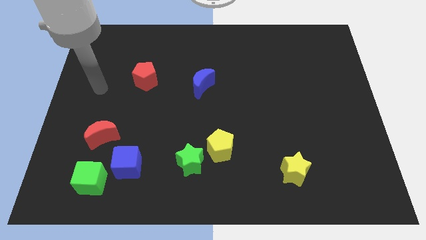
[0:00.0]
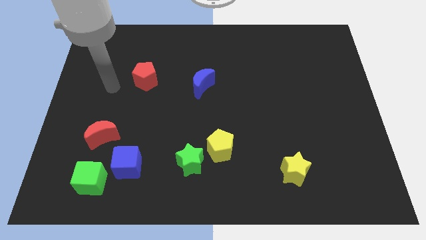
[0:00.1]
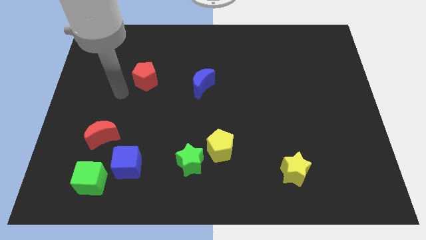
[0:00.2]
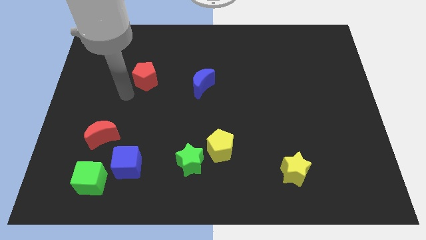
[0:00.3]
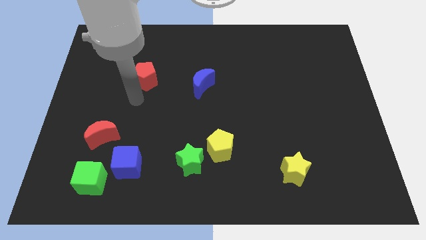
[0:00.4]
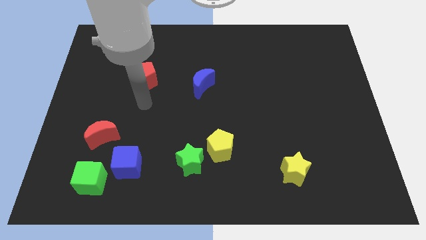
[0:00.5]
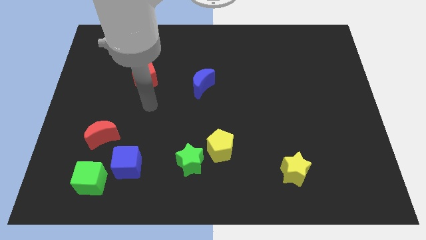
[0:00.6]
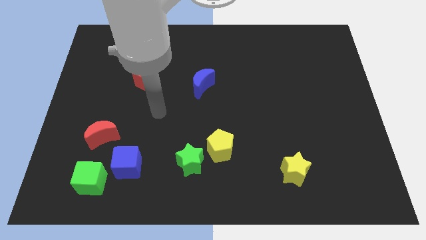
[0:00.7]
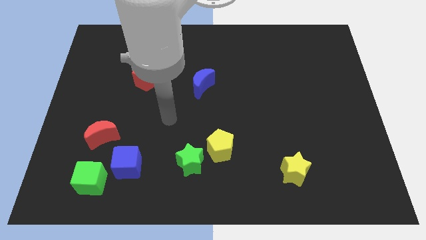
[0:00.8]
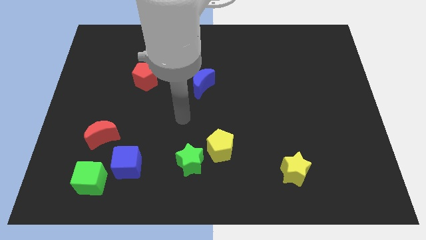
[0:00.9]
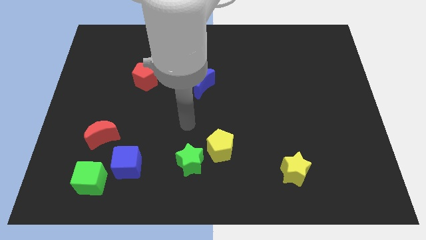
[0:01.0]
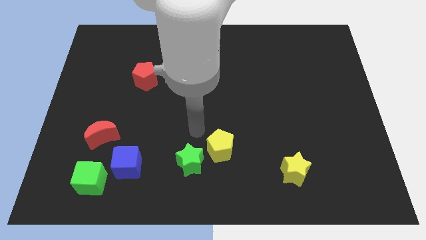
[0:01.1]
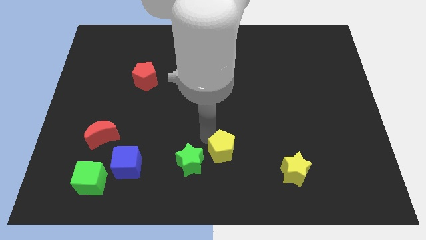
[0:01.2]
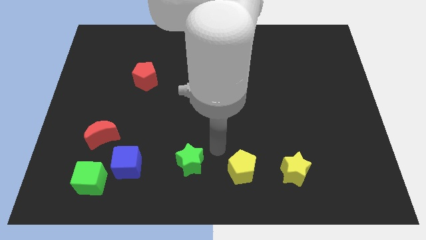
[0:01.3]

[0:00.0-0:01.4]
separate the green star from the yellow pentagon

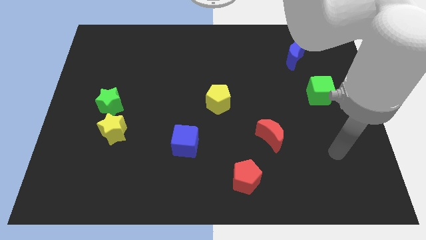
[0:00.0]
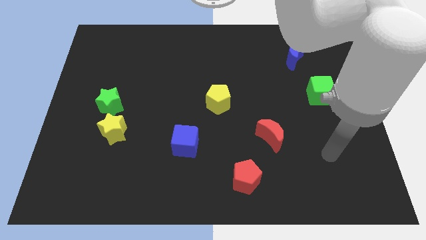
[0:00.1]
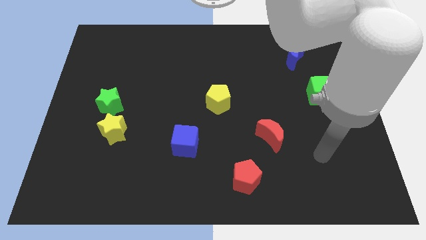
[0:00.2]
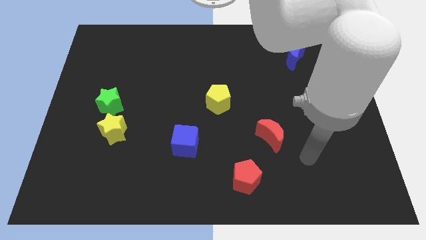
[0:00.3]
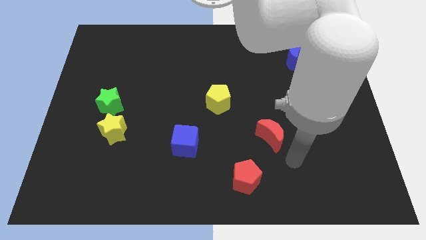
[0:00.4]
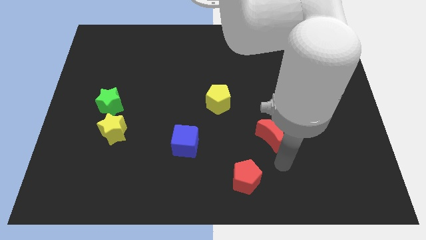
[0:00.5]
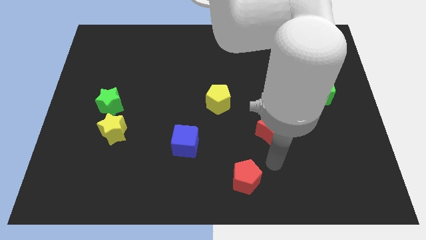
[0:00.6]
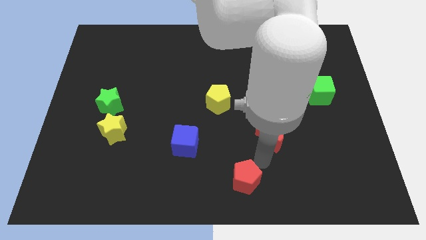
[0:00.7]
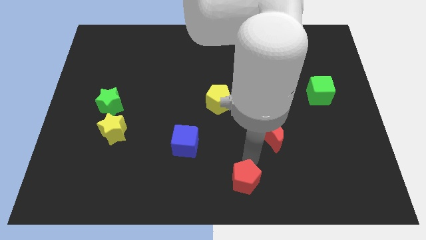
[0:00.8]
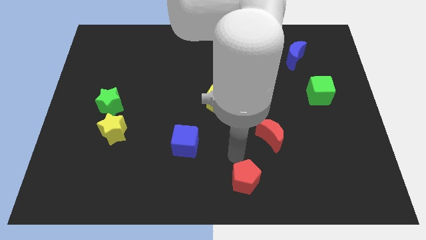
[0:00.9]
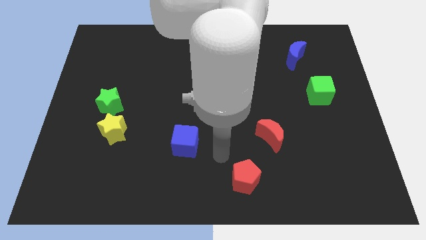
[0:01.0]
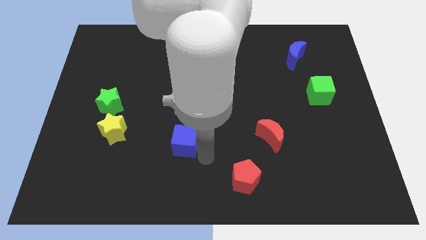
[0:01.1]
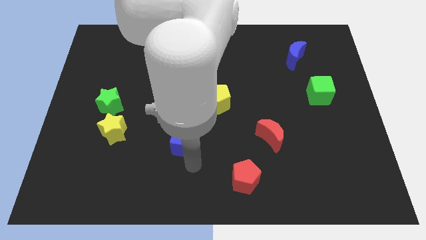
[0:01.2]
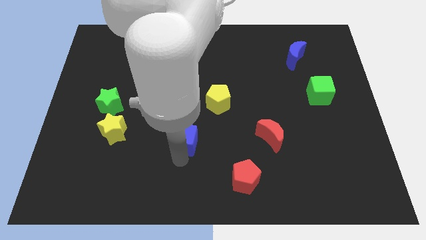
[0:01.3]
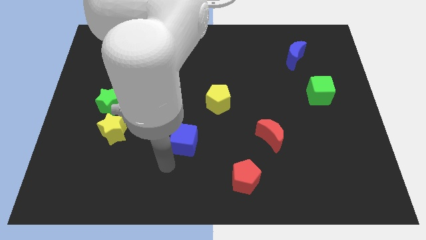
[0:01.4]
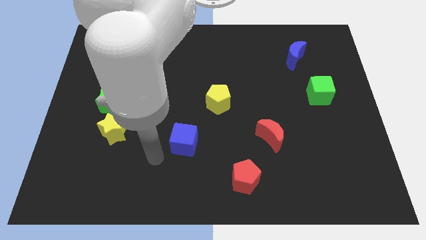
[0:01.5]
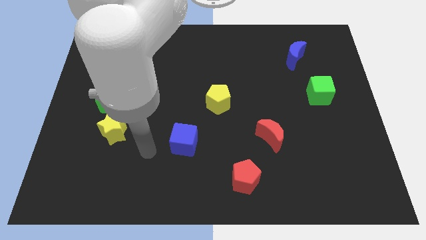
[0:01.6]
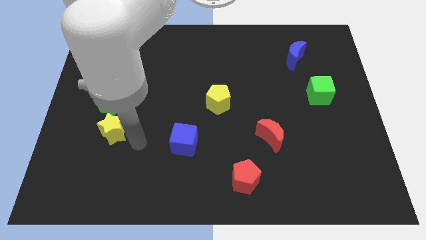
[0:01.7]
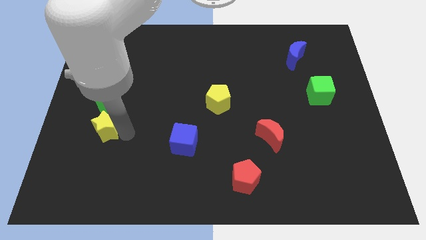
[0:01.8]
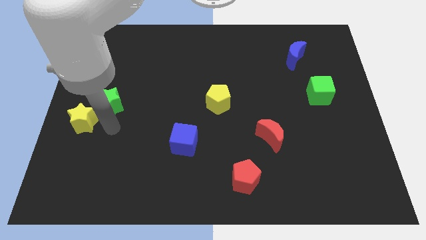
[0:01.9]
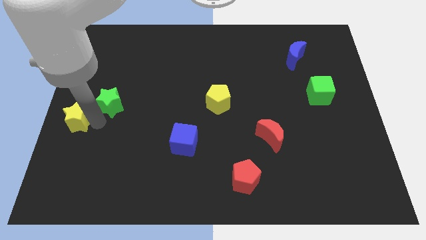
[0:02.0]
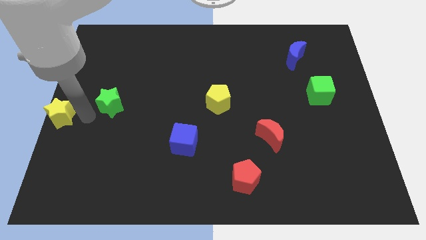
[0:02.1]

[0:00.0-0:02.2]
pull the green star apart from the yellow star

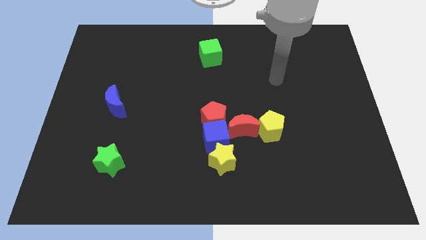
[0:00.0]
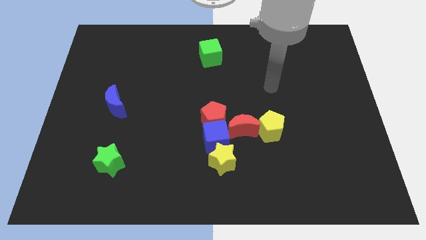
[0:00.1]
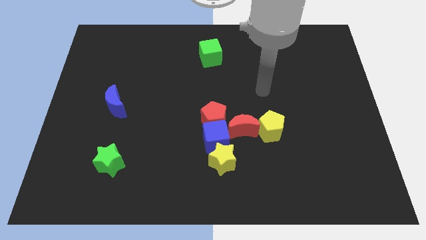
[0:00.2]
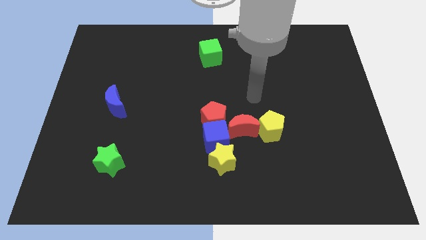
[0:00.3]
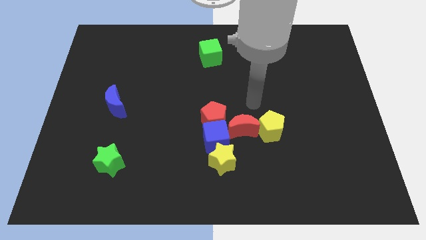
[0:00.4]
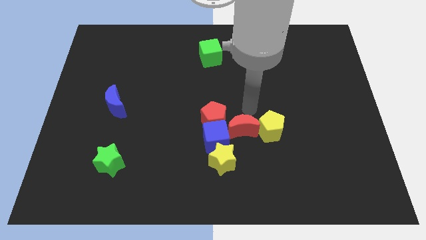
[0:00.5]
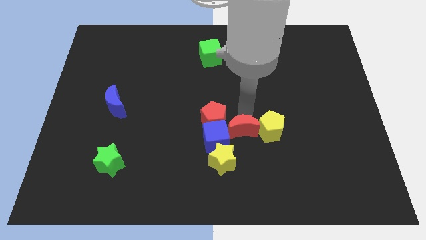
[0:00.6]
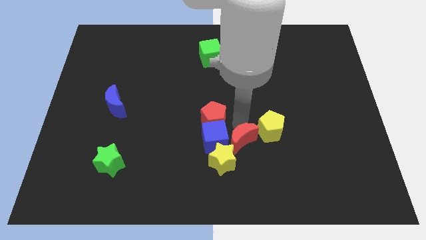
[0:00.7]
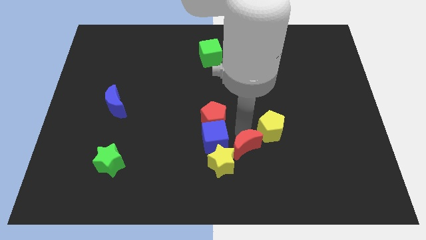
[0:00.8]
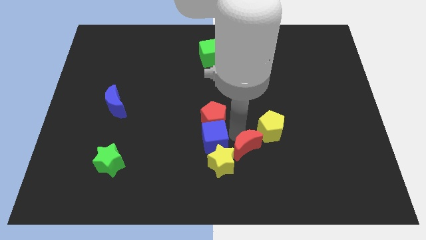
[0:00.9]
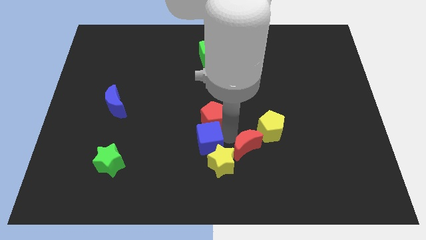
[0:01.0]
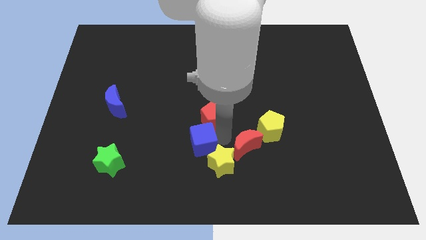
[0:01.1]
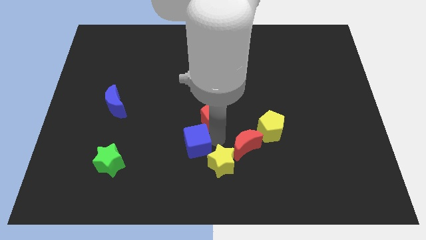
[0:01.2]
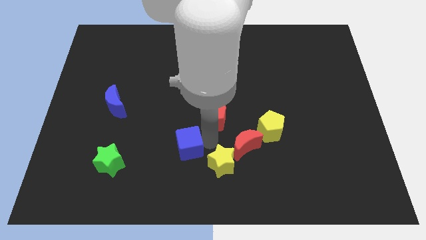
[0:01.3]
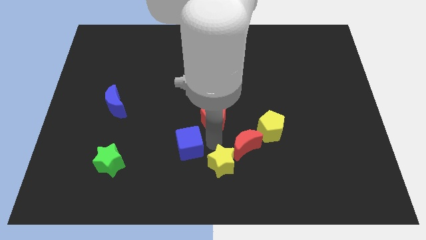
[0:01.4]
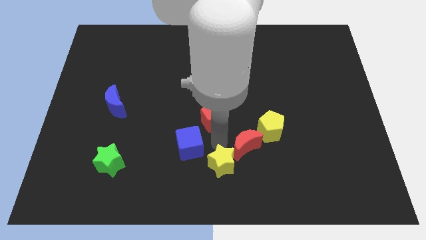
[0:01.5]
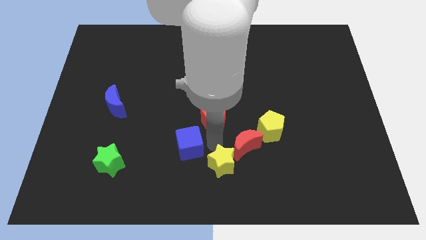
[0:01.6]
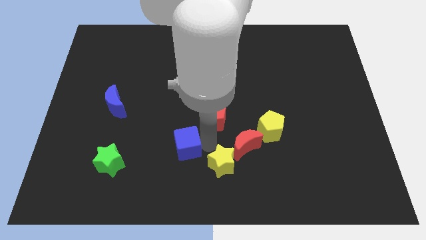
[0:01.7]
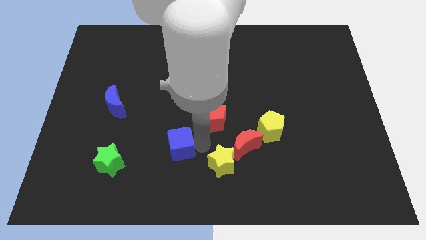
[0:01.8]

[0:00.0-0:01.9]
separate the blue cube from the red pentagon, yellow star, and red moon

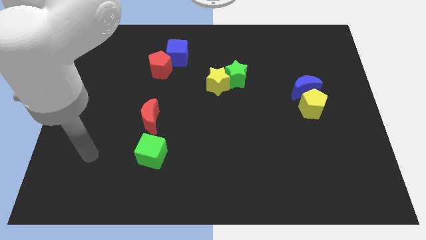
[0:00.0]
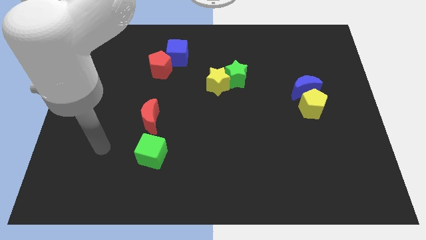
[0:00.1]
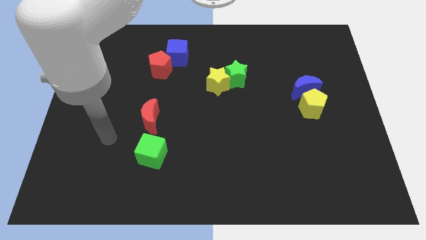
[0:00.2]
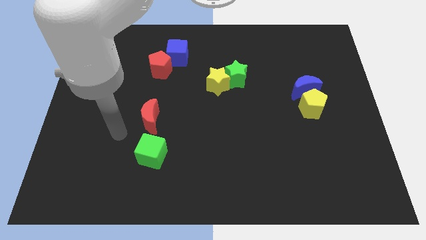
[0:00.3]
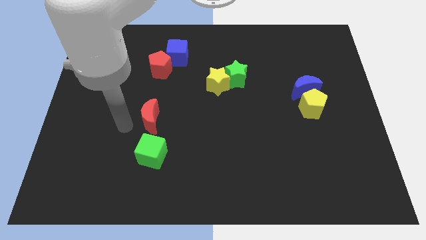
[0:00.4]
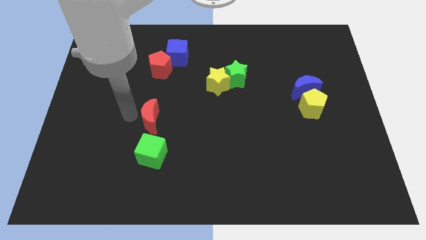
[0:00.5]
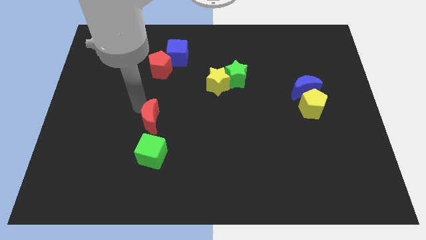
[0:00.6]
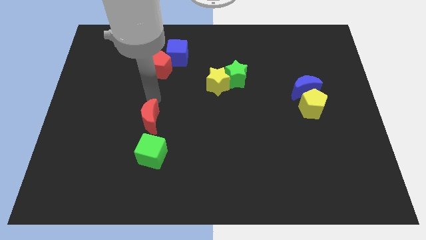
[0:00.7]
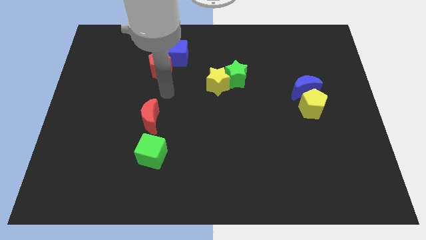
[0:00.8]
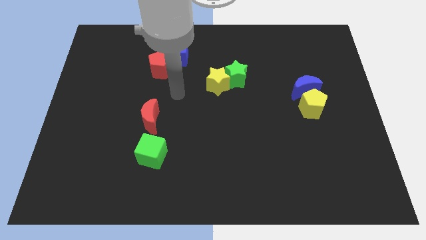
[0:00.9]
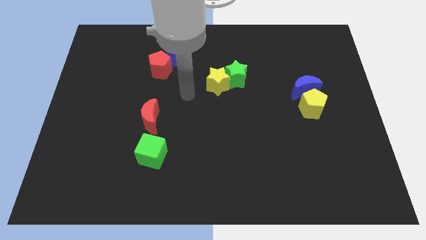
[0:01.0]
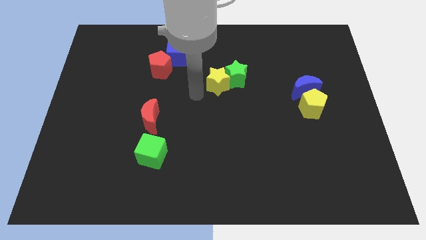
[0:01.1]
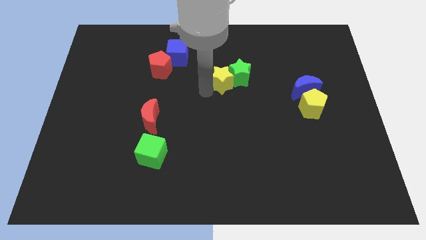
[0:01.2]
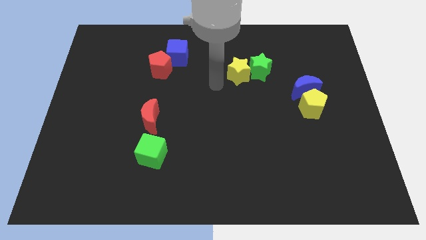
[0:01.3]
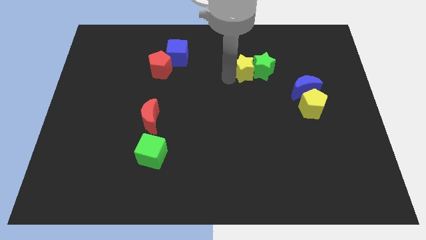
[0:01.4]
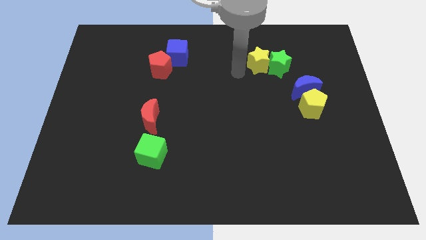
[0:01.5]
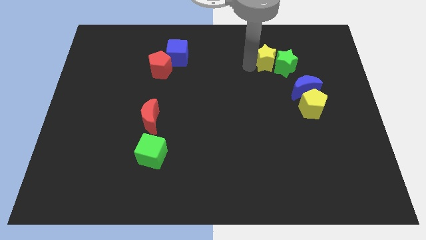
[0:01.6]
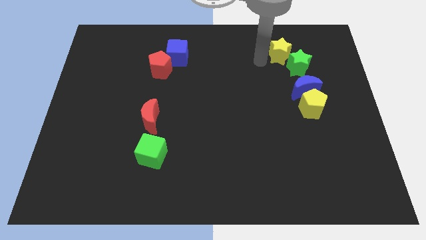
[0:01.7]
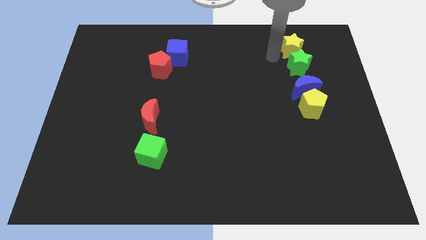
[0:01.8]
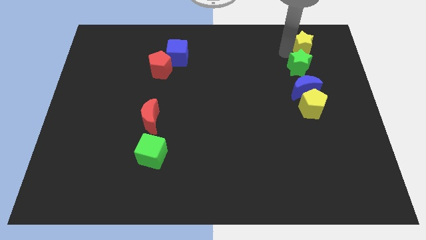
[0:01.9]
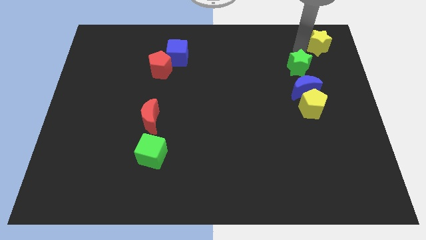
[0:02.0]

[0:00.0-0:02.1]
move the green star away from the yellow star

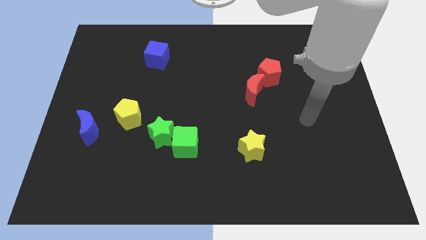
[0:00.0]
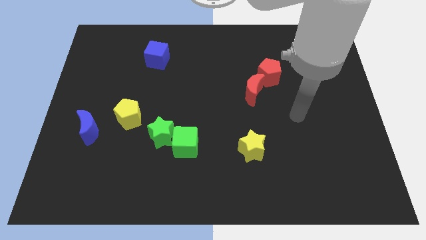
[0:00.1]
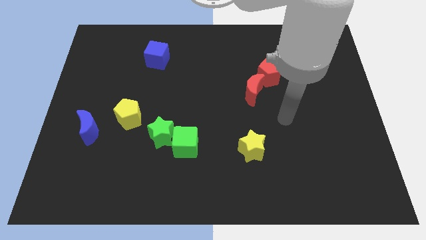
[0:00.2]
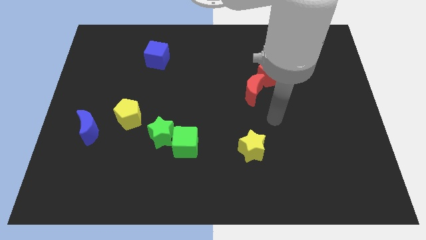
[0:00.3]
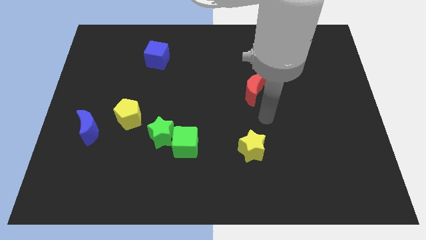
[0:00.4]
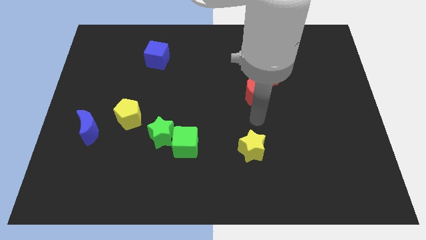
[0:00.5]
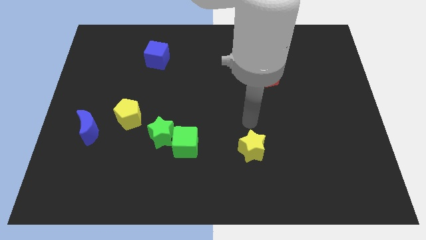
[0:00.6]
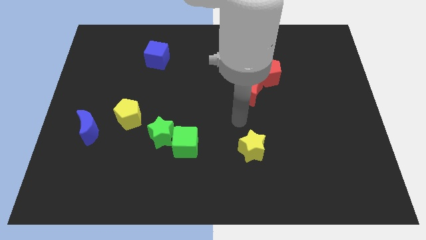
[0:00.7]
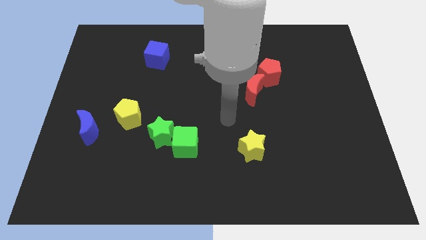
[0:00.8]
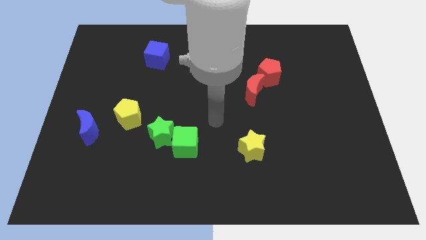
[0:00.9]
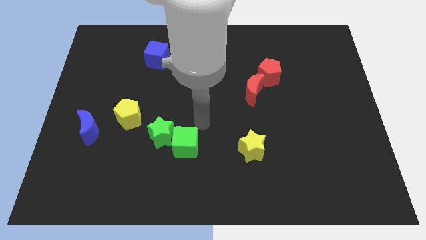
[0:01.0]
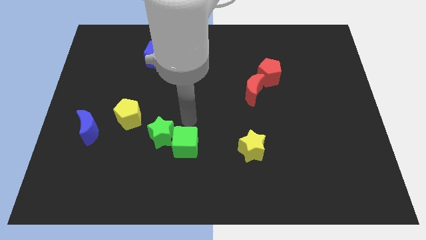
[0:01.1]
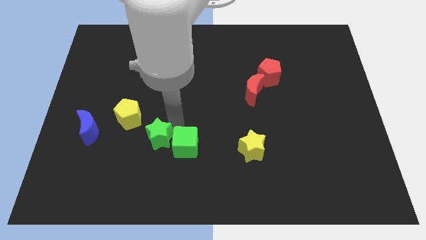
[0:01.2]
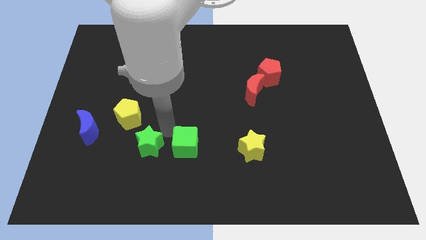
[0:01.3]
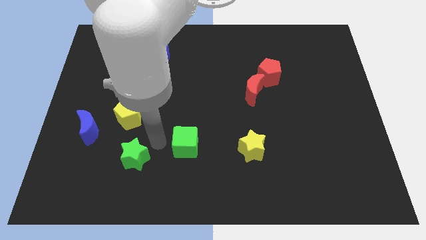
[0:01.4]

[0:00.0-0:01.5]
move the green cube away from the green star
